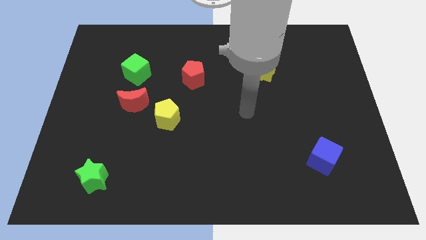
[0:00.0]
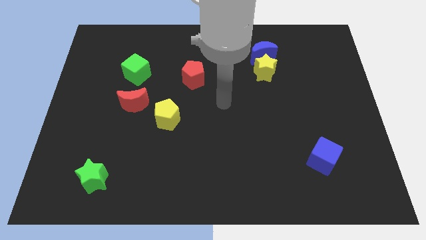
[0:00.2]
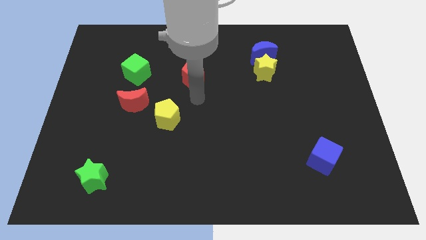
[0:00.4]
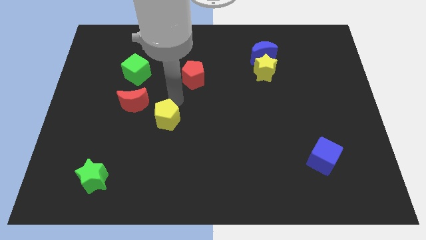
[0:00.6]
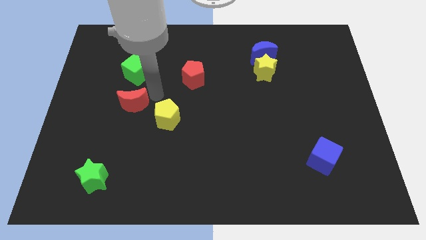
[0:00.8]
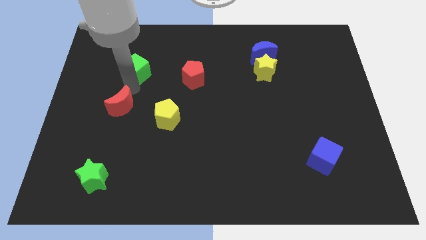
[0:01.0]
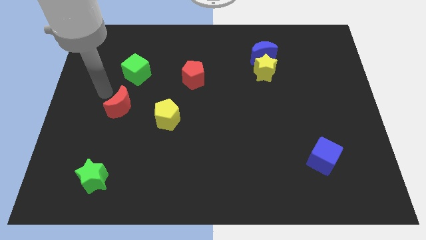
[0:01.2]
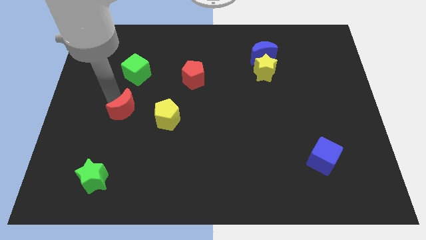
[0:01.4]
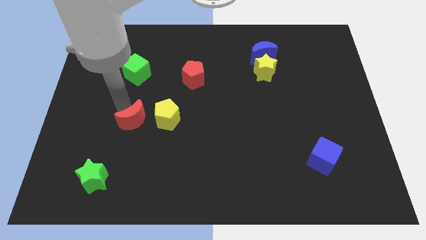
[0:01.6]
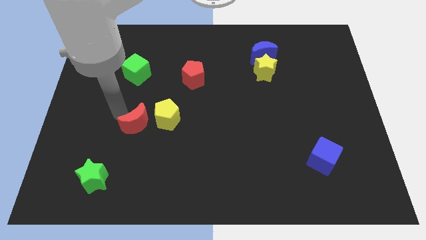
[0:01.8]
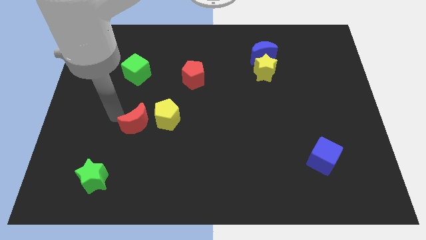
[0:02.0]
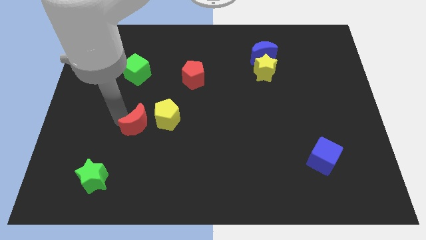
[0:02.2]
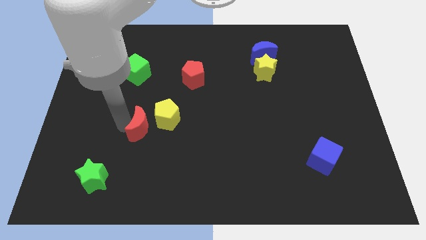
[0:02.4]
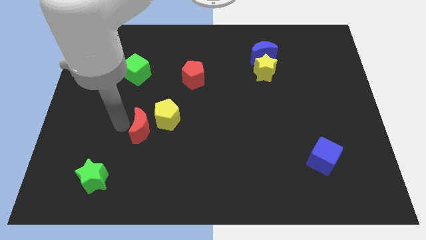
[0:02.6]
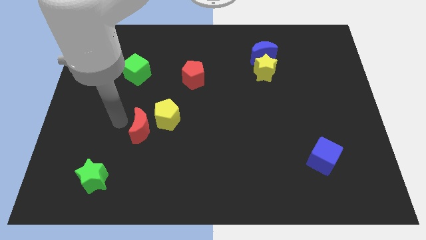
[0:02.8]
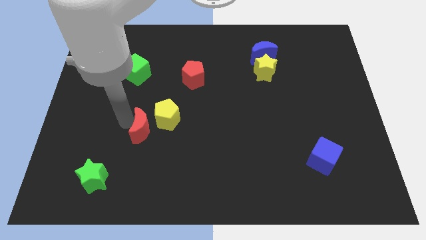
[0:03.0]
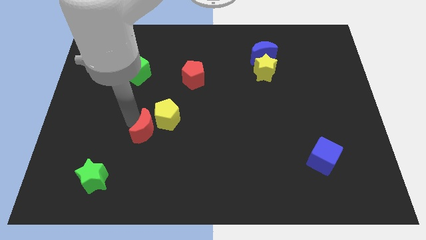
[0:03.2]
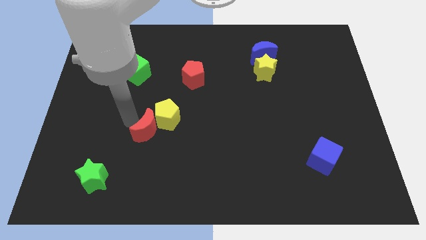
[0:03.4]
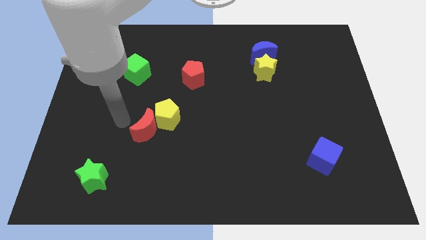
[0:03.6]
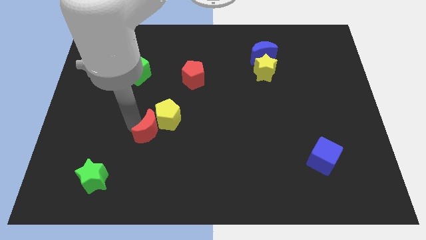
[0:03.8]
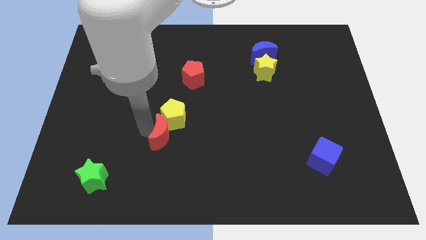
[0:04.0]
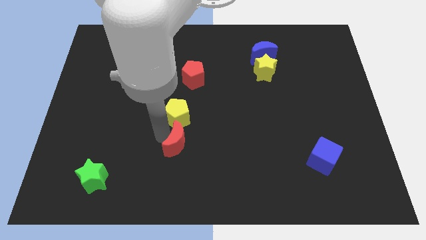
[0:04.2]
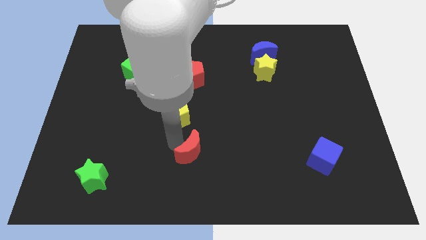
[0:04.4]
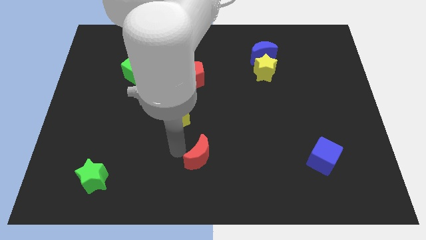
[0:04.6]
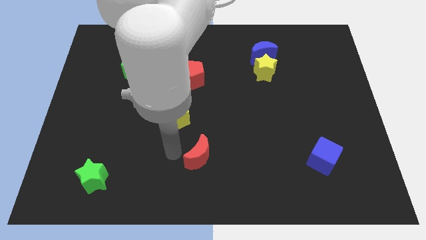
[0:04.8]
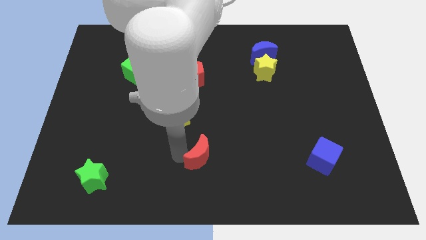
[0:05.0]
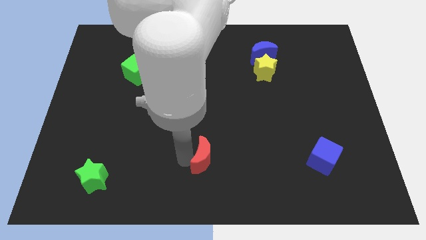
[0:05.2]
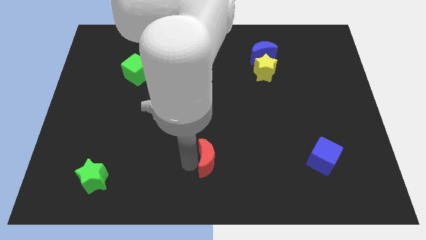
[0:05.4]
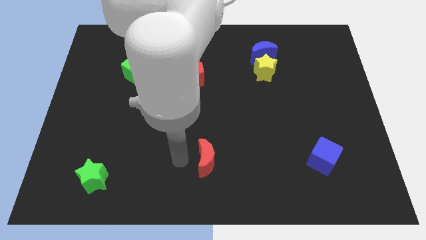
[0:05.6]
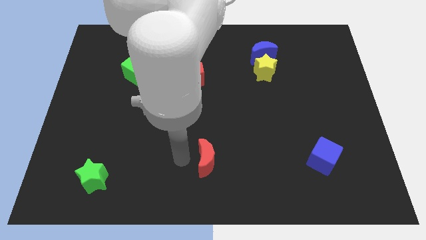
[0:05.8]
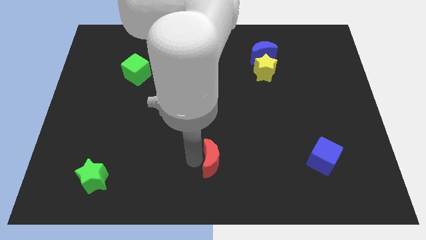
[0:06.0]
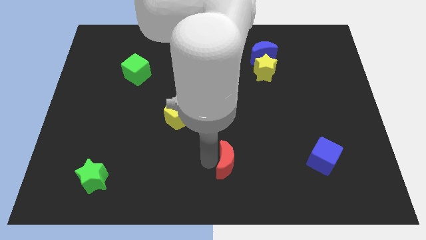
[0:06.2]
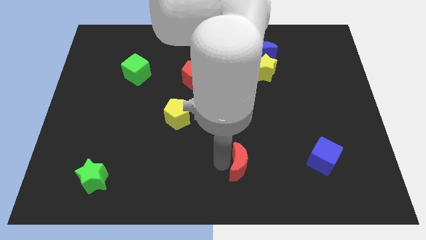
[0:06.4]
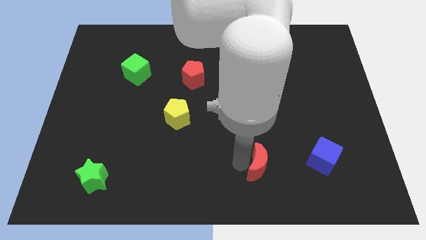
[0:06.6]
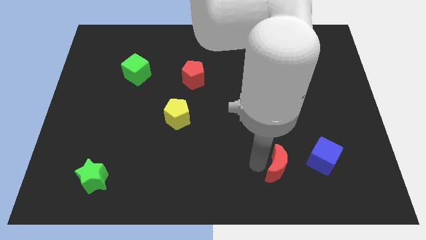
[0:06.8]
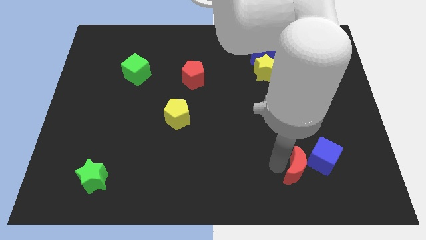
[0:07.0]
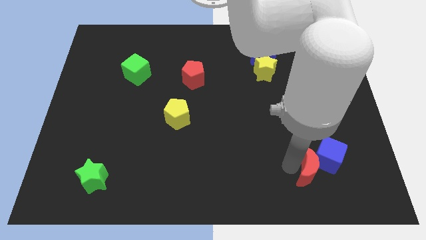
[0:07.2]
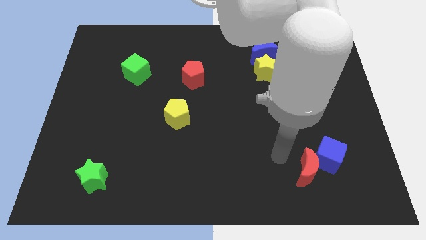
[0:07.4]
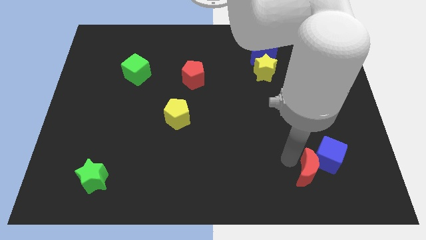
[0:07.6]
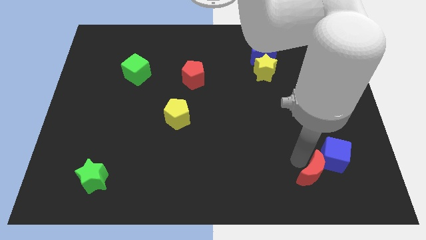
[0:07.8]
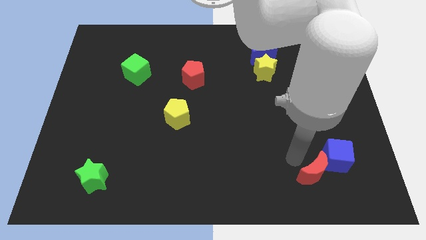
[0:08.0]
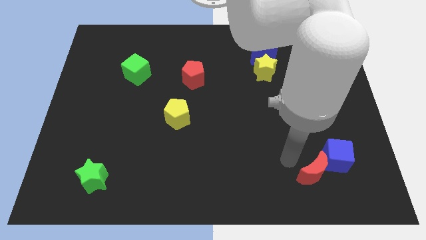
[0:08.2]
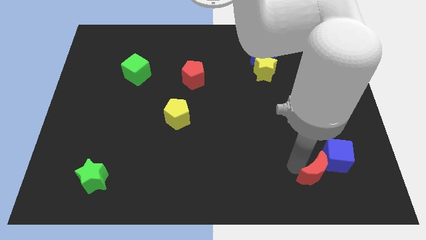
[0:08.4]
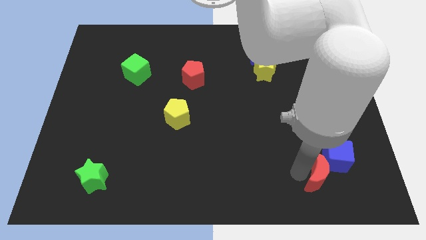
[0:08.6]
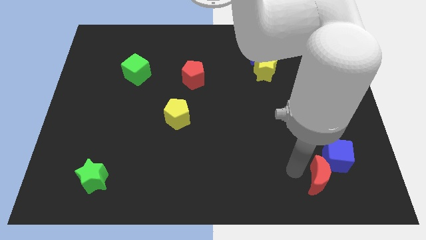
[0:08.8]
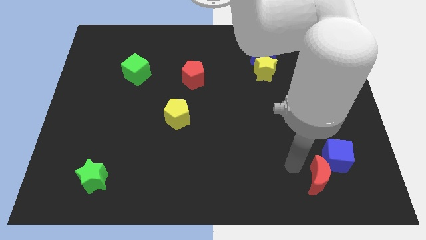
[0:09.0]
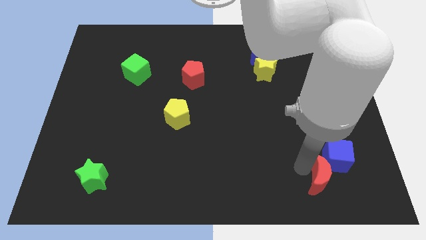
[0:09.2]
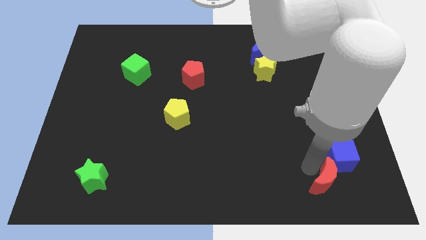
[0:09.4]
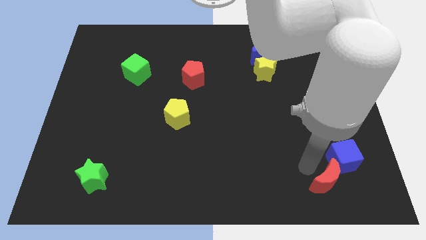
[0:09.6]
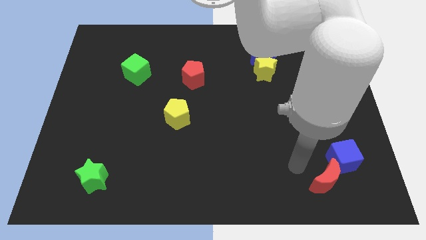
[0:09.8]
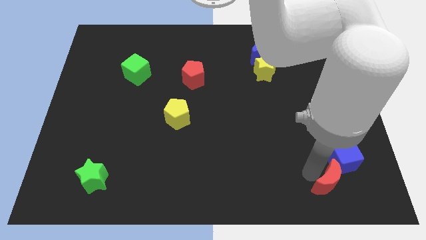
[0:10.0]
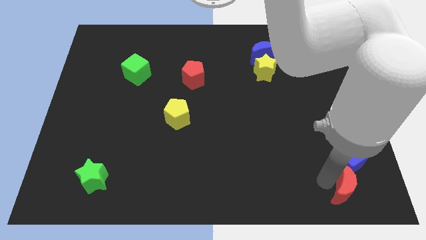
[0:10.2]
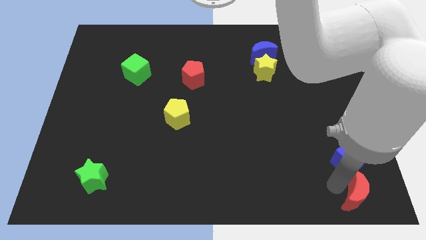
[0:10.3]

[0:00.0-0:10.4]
slide the red moon to the bottom right
